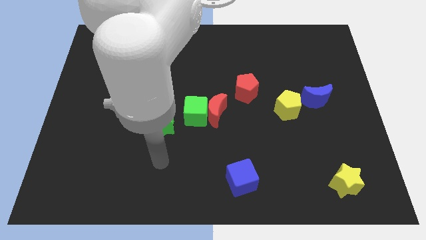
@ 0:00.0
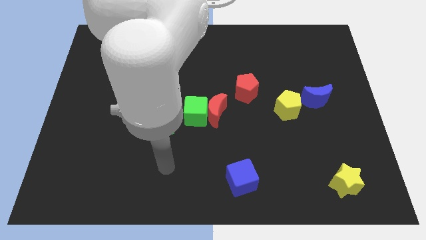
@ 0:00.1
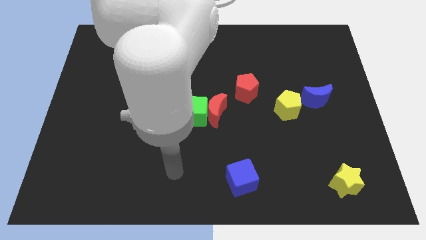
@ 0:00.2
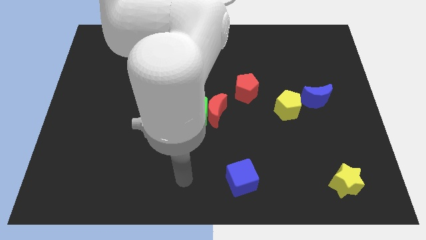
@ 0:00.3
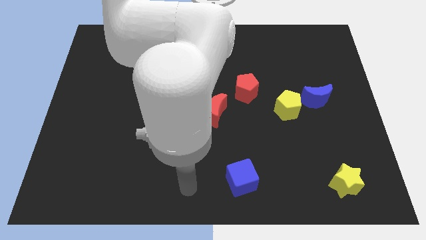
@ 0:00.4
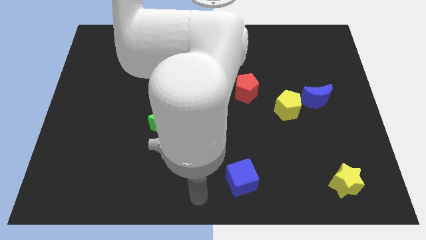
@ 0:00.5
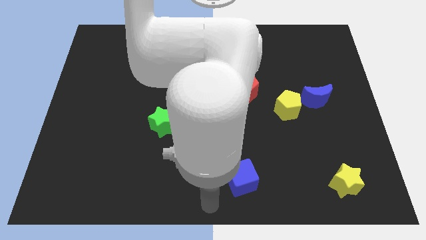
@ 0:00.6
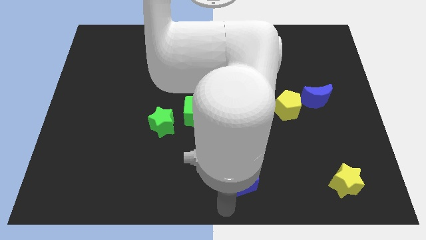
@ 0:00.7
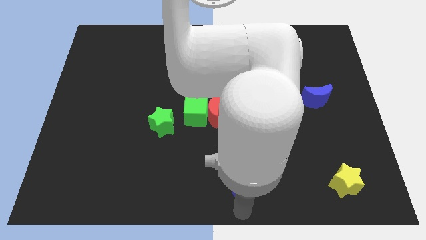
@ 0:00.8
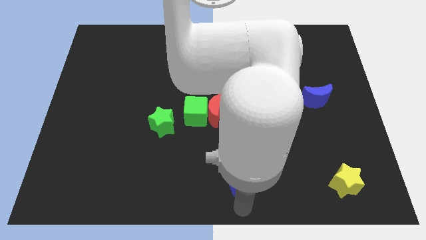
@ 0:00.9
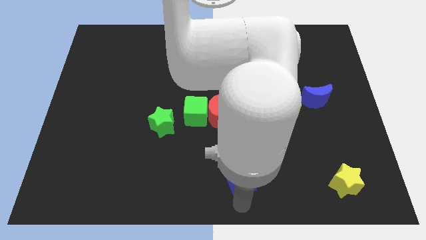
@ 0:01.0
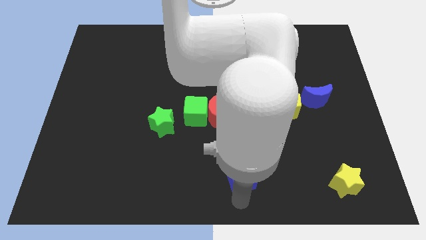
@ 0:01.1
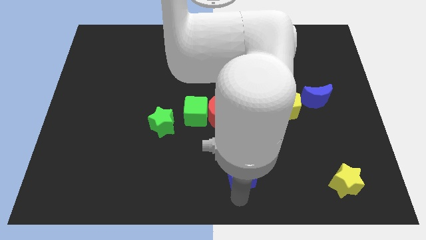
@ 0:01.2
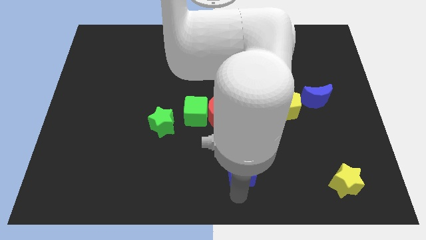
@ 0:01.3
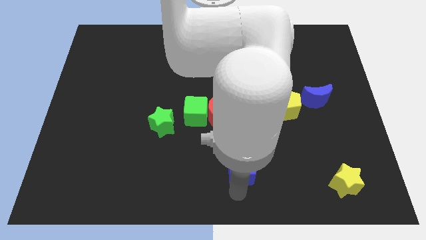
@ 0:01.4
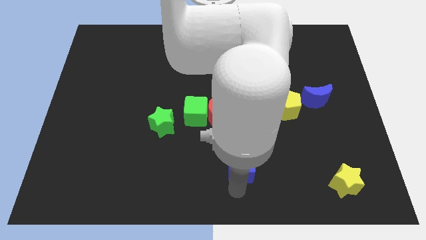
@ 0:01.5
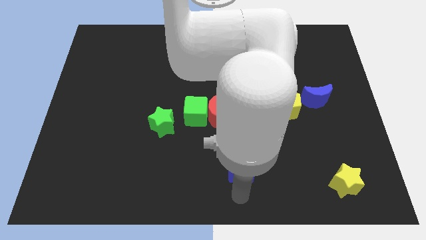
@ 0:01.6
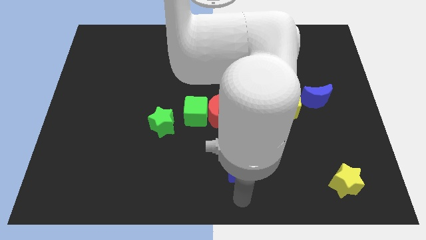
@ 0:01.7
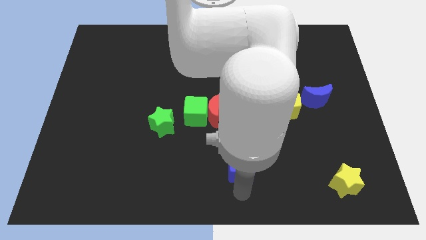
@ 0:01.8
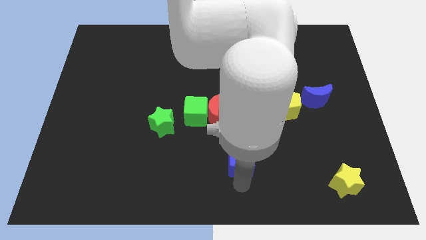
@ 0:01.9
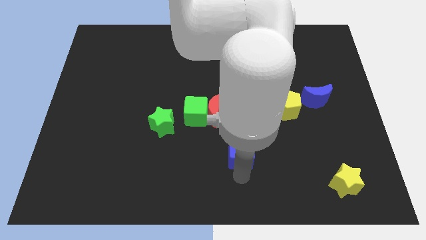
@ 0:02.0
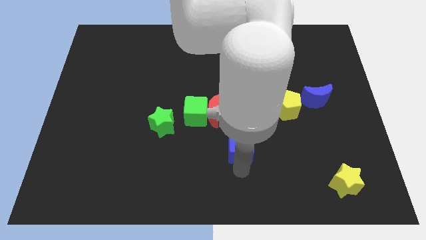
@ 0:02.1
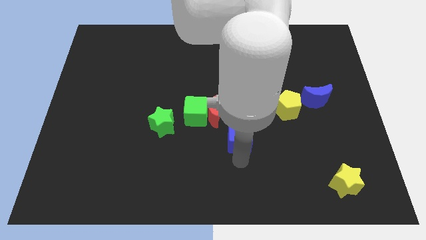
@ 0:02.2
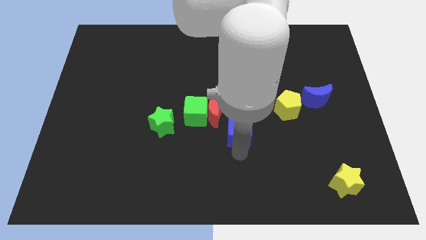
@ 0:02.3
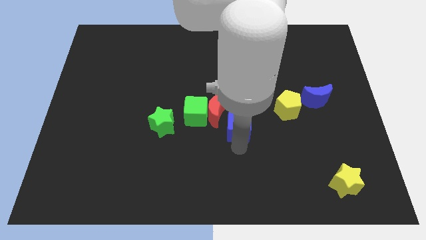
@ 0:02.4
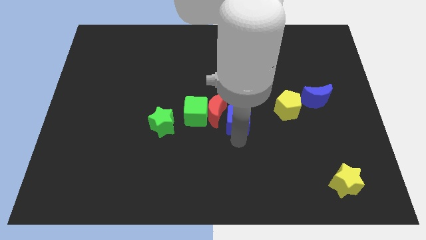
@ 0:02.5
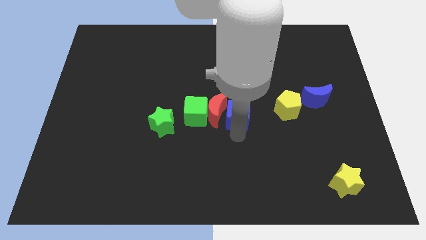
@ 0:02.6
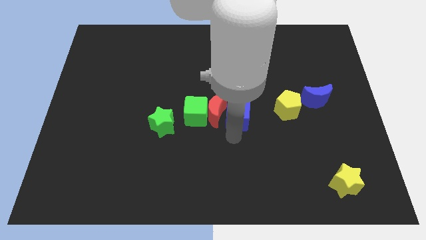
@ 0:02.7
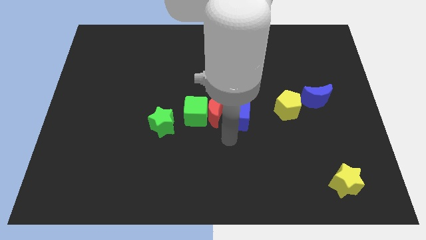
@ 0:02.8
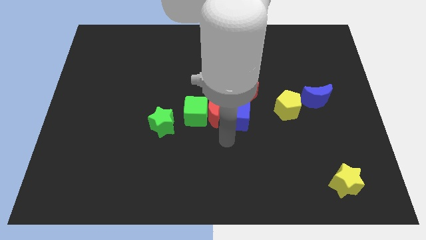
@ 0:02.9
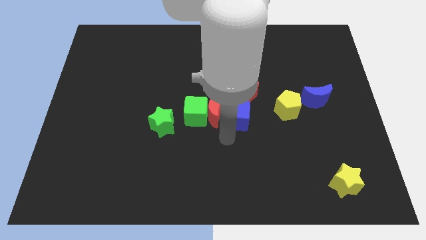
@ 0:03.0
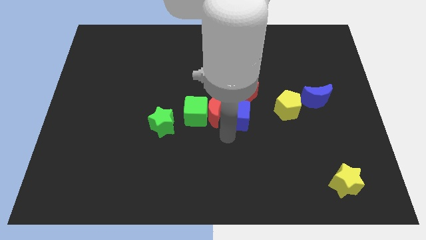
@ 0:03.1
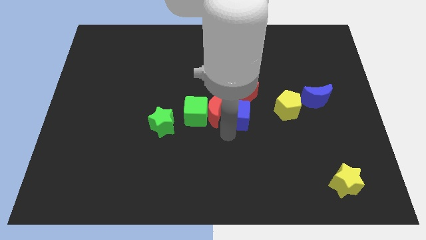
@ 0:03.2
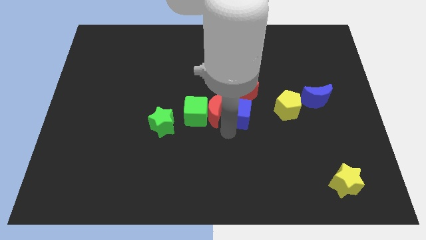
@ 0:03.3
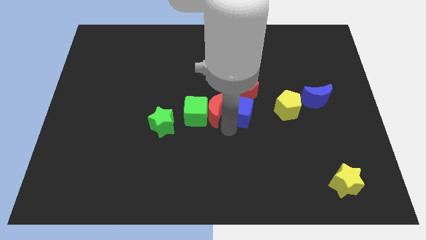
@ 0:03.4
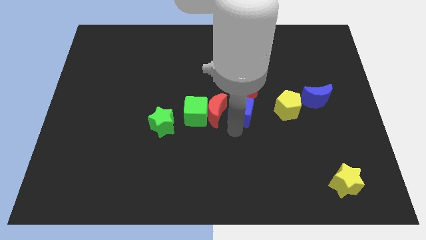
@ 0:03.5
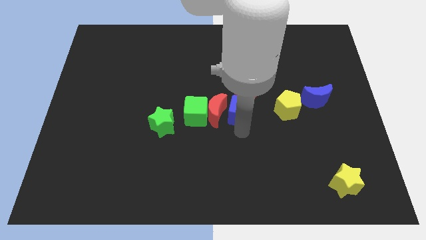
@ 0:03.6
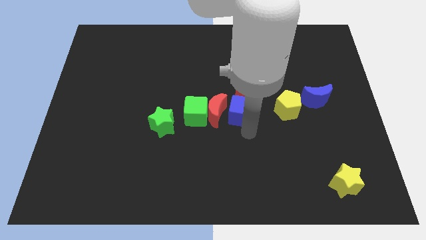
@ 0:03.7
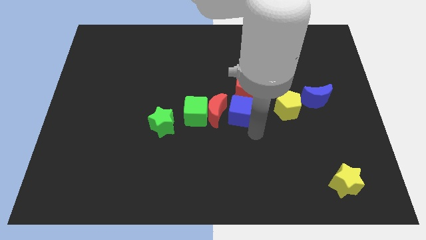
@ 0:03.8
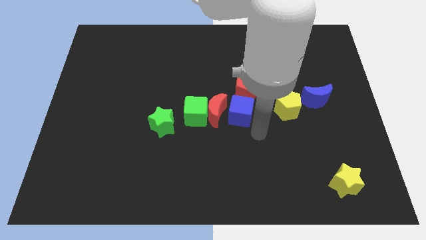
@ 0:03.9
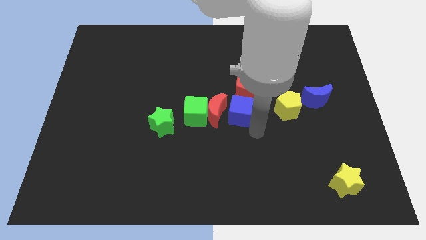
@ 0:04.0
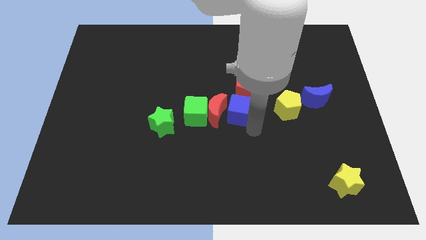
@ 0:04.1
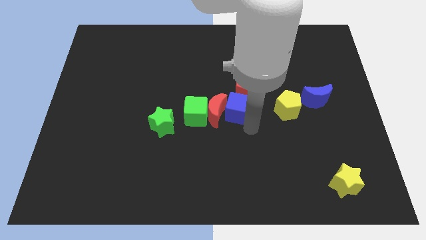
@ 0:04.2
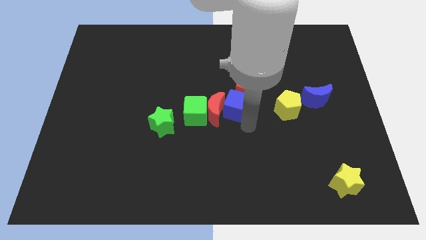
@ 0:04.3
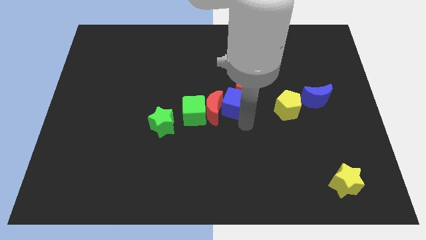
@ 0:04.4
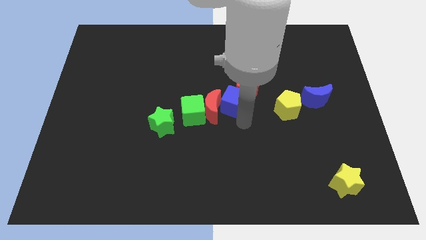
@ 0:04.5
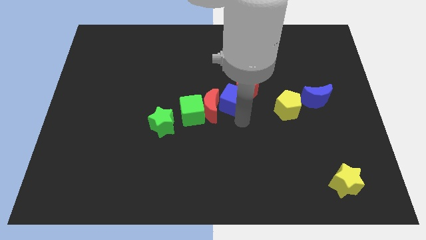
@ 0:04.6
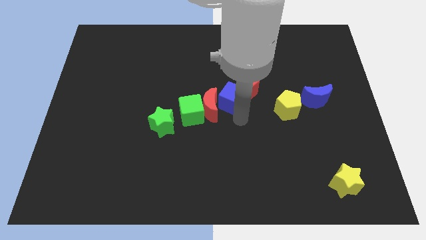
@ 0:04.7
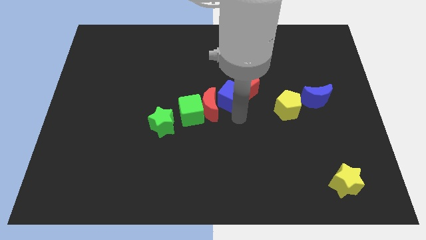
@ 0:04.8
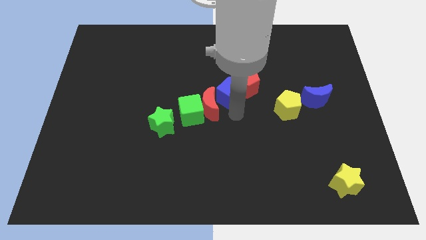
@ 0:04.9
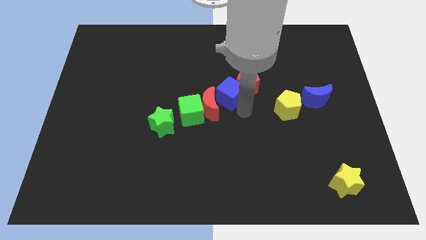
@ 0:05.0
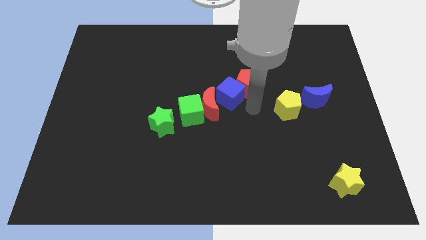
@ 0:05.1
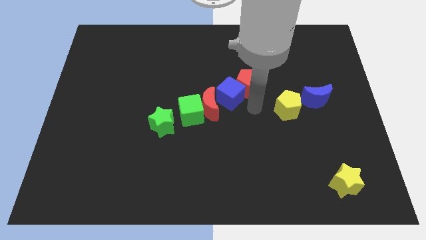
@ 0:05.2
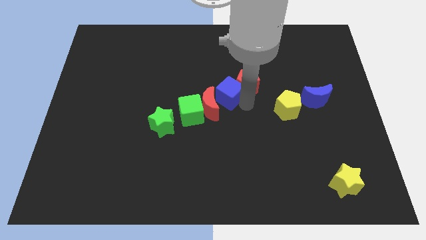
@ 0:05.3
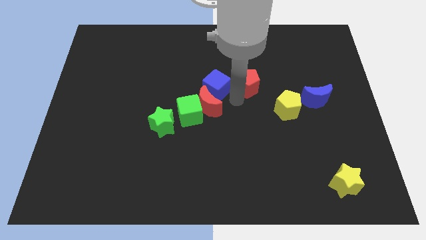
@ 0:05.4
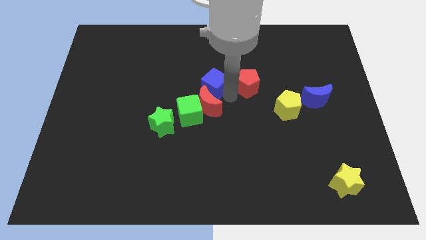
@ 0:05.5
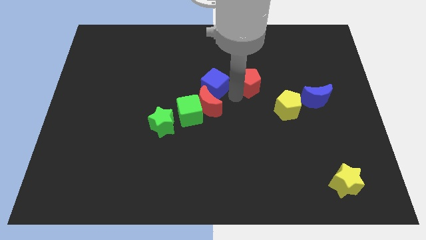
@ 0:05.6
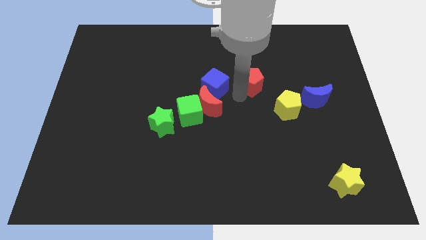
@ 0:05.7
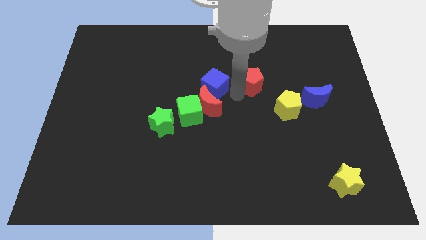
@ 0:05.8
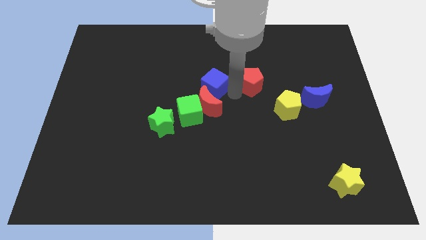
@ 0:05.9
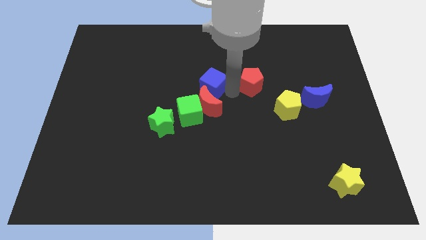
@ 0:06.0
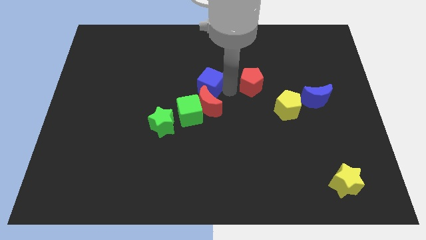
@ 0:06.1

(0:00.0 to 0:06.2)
put the blue cube to the top of the green cube

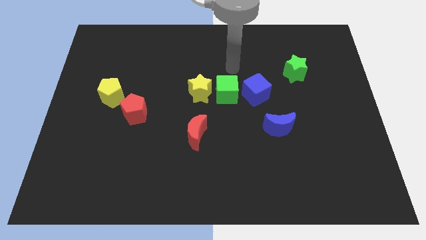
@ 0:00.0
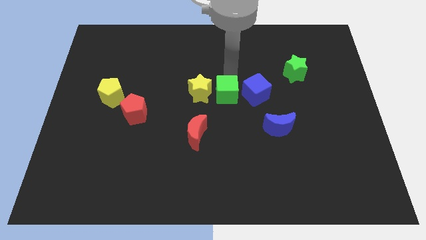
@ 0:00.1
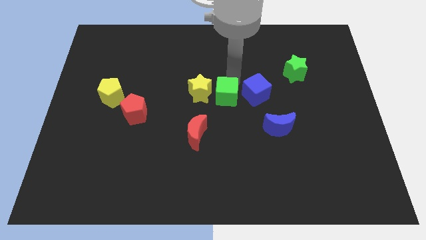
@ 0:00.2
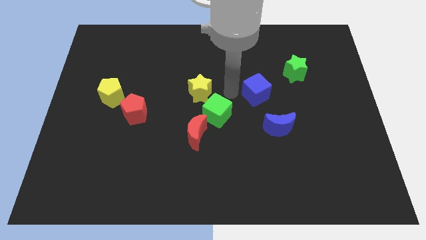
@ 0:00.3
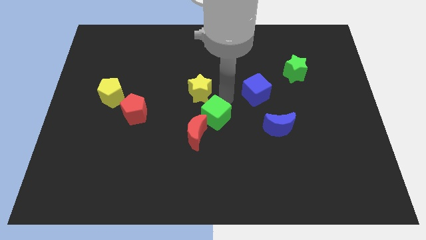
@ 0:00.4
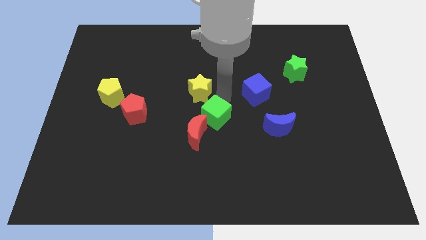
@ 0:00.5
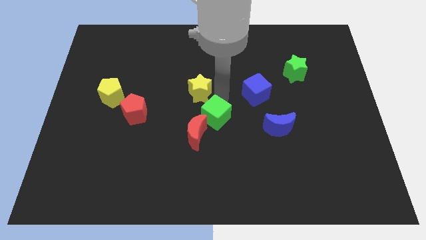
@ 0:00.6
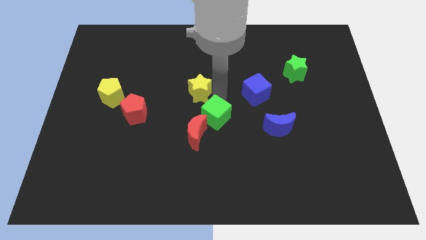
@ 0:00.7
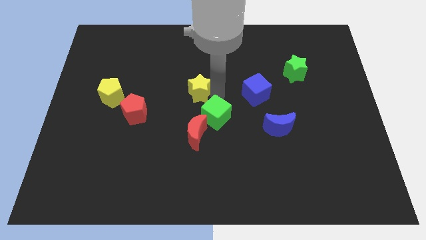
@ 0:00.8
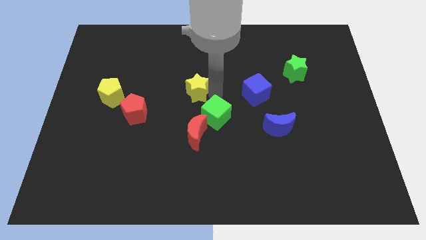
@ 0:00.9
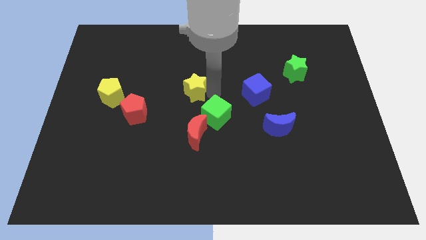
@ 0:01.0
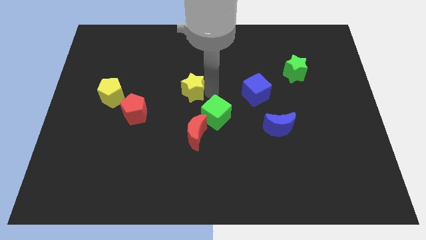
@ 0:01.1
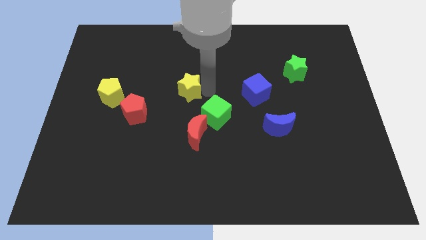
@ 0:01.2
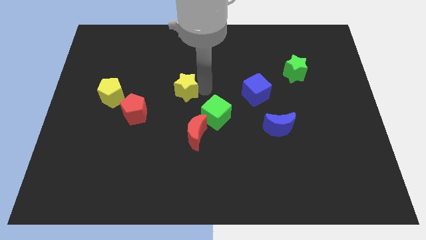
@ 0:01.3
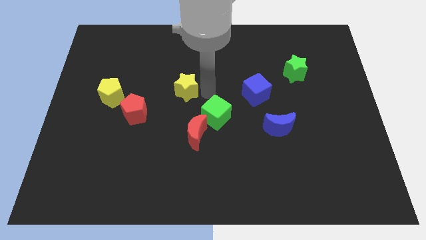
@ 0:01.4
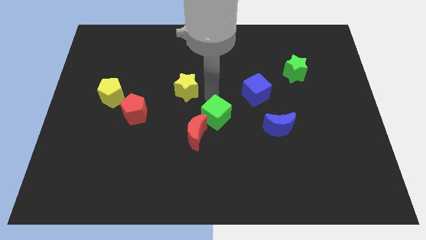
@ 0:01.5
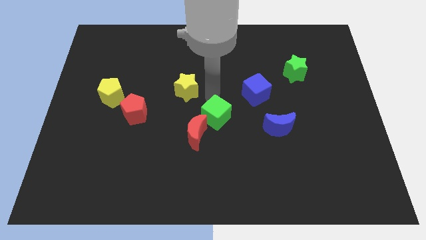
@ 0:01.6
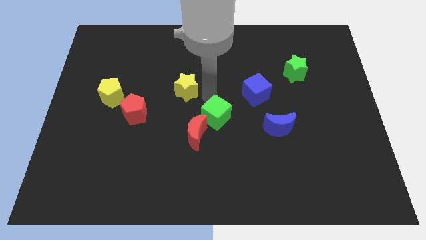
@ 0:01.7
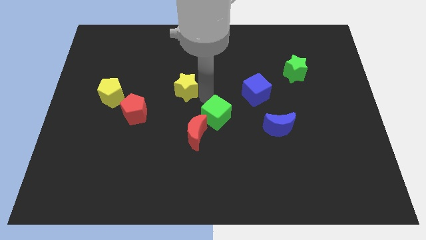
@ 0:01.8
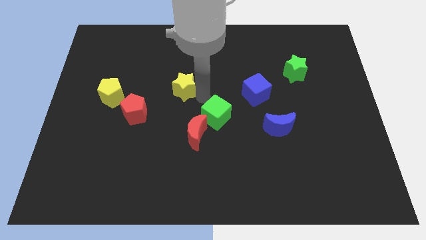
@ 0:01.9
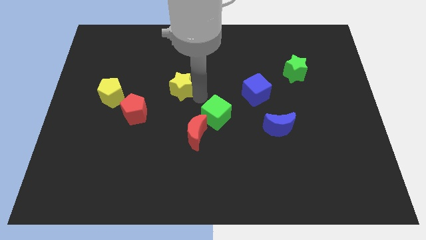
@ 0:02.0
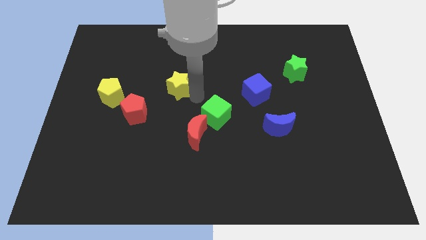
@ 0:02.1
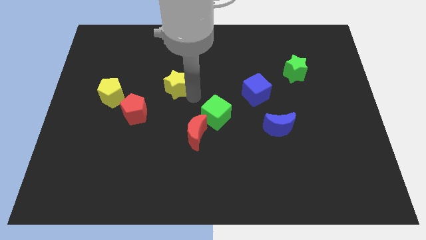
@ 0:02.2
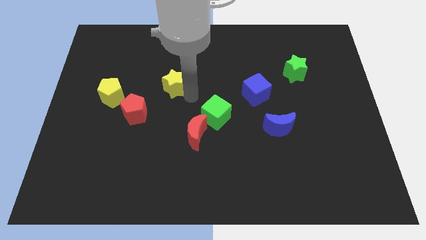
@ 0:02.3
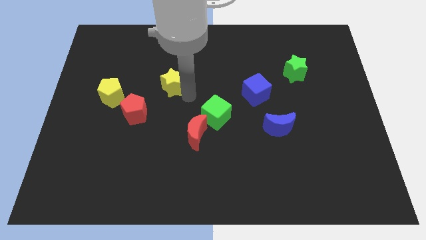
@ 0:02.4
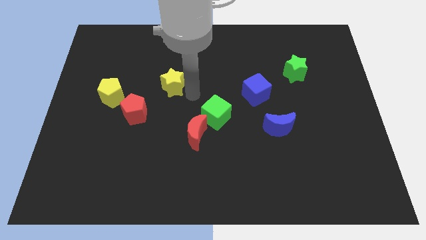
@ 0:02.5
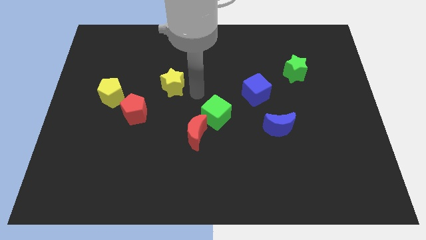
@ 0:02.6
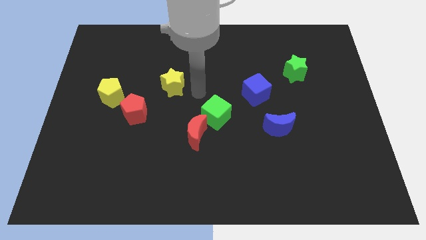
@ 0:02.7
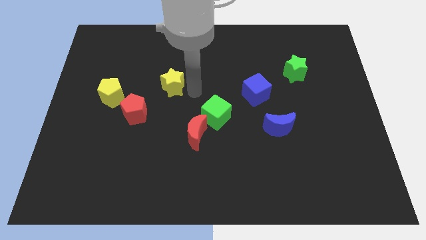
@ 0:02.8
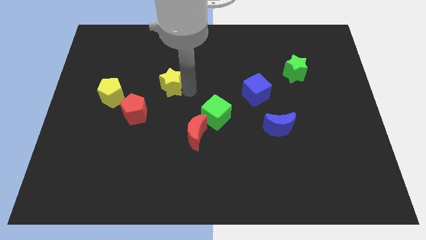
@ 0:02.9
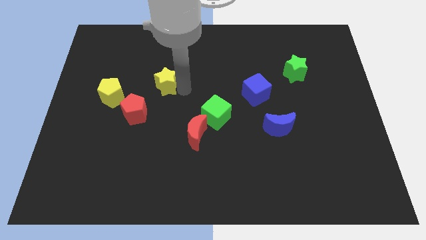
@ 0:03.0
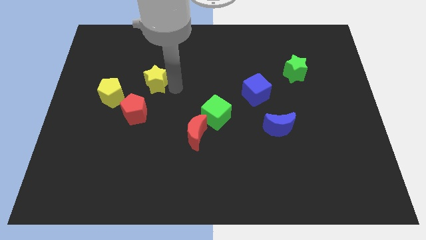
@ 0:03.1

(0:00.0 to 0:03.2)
move the yellow star diagonally up and to the right of the yellow pentagon
